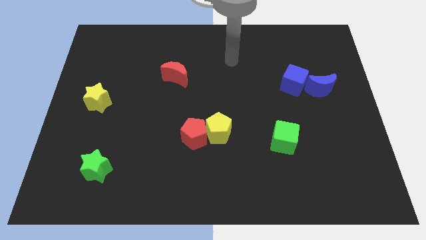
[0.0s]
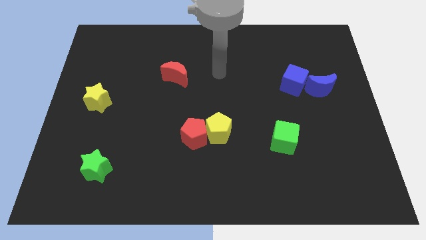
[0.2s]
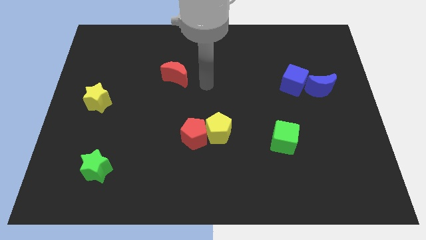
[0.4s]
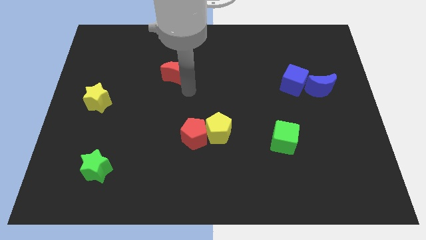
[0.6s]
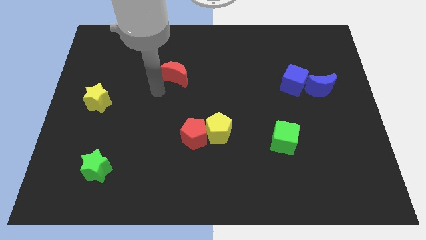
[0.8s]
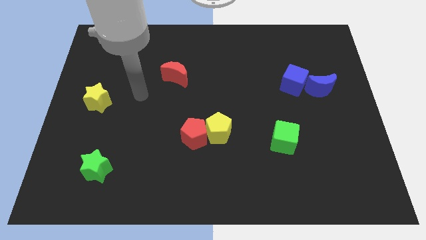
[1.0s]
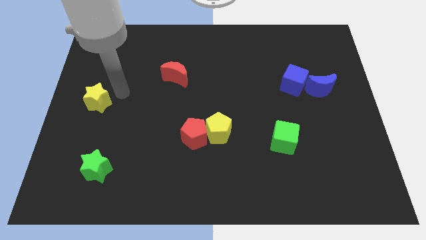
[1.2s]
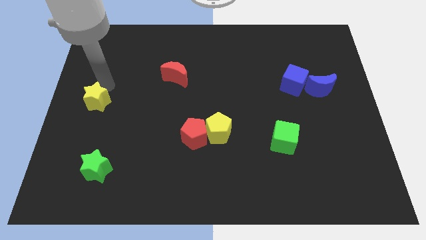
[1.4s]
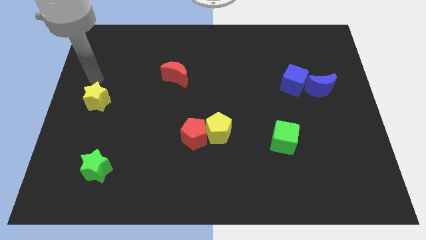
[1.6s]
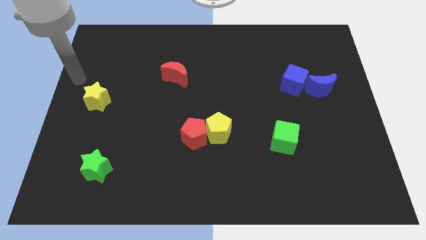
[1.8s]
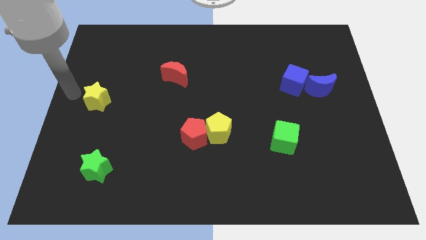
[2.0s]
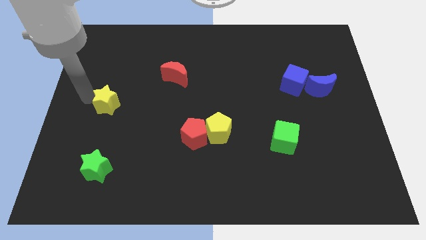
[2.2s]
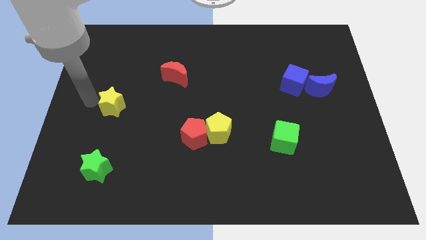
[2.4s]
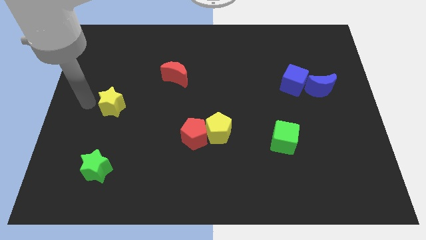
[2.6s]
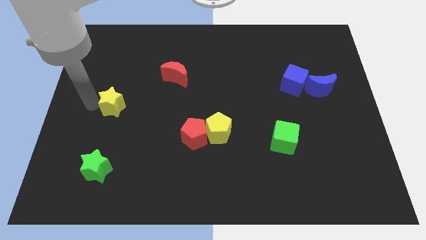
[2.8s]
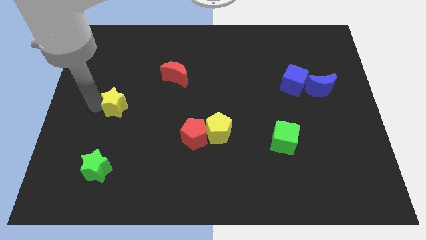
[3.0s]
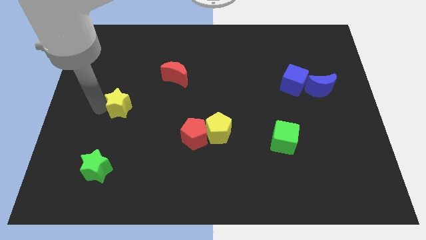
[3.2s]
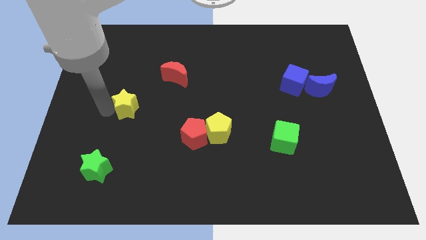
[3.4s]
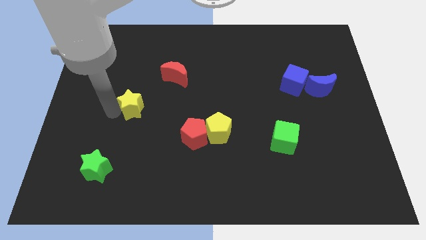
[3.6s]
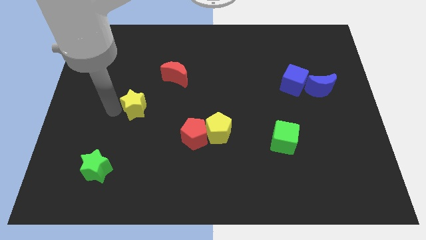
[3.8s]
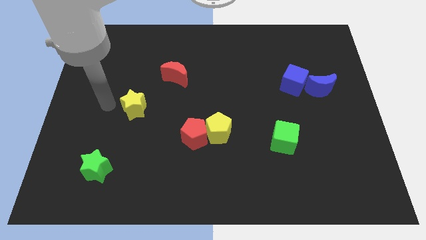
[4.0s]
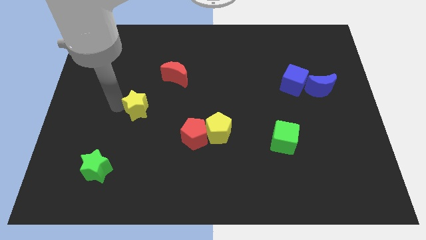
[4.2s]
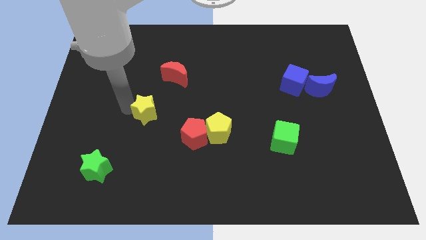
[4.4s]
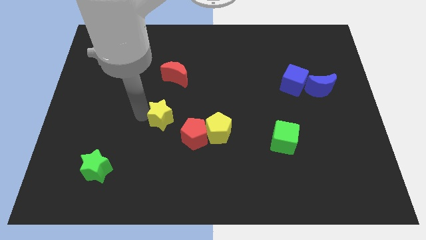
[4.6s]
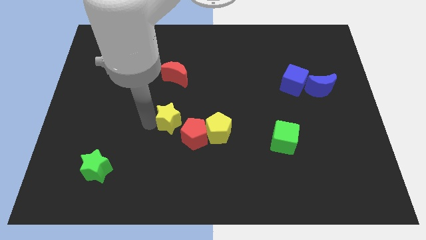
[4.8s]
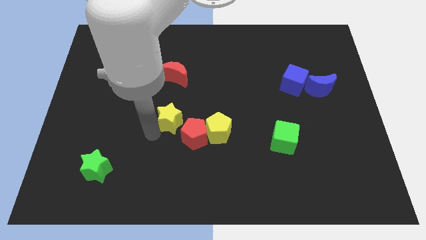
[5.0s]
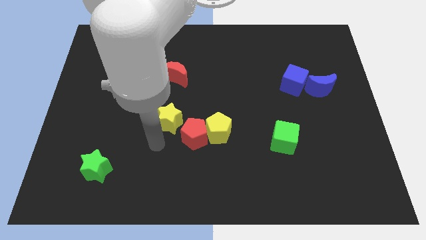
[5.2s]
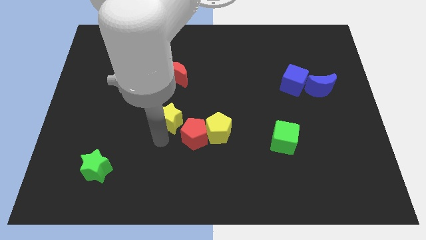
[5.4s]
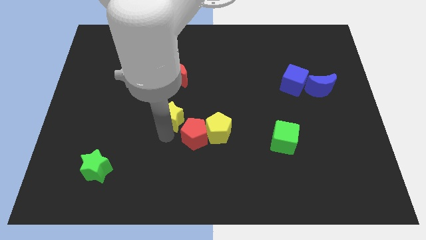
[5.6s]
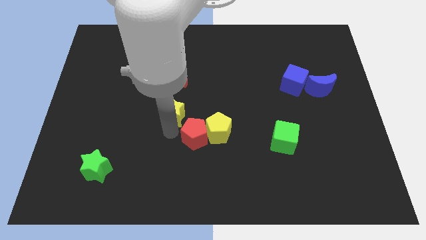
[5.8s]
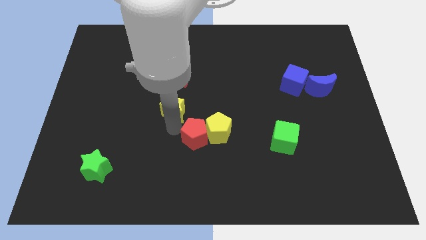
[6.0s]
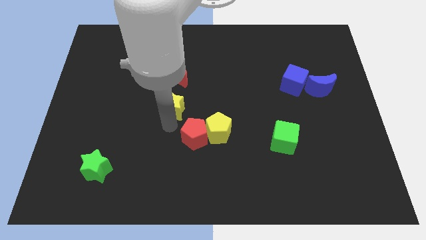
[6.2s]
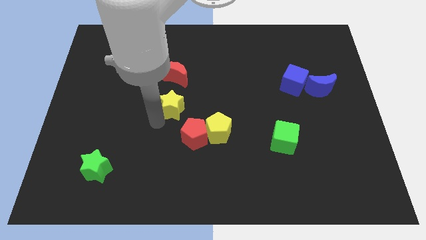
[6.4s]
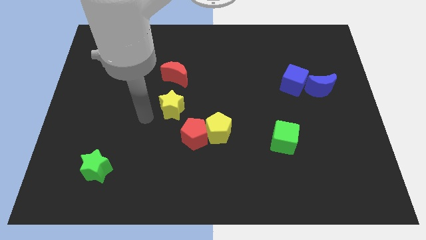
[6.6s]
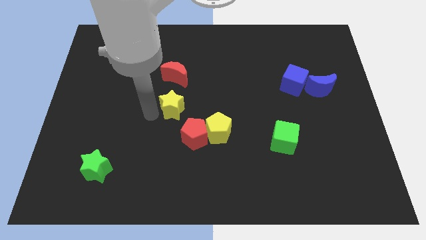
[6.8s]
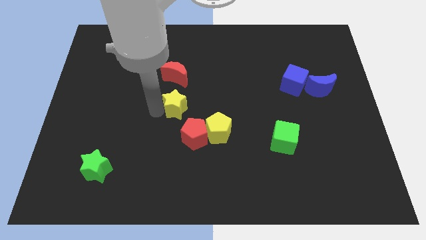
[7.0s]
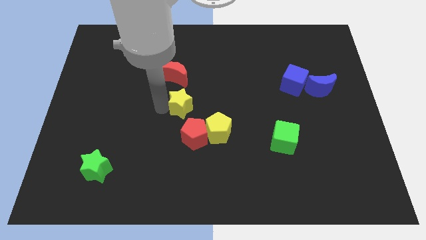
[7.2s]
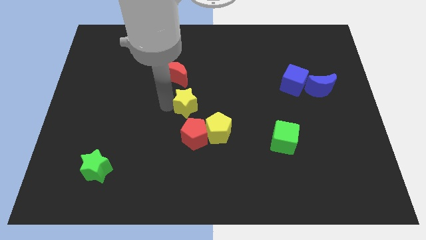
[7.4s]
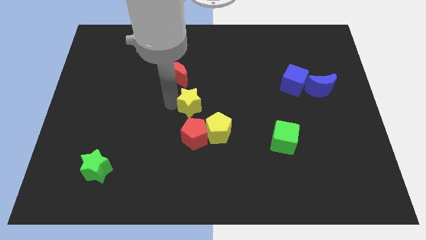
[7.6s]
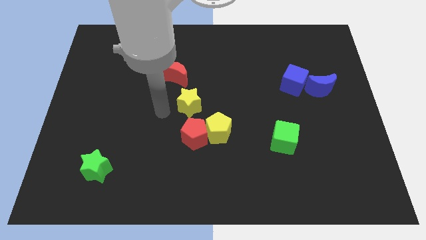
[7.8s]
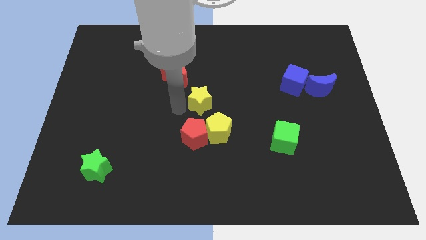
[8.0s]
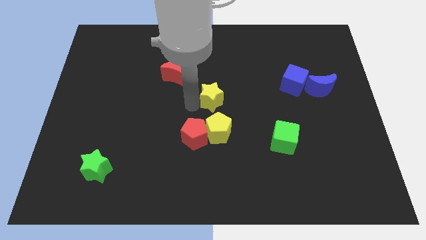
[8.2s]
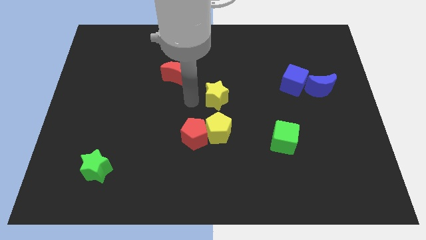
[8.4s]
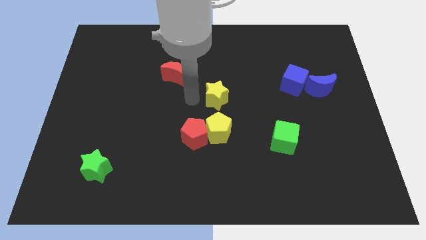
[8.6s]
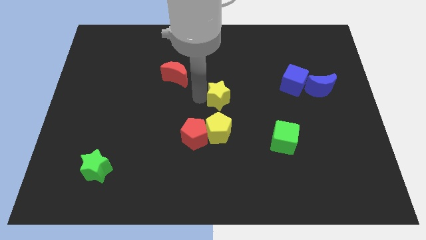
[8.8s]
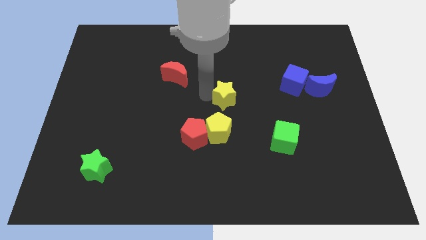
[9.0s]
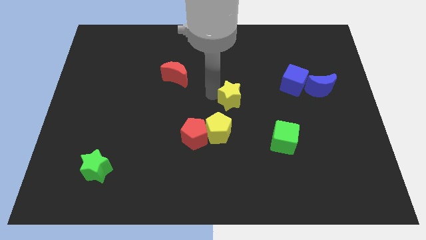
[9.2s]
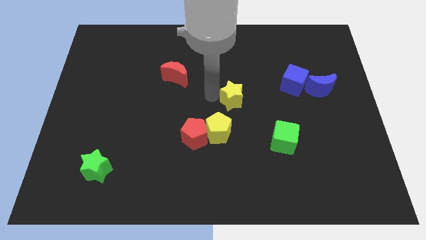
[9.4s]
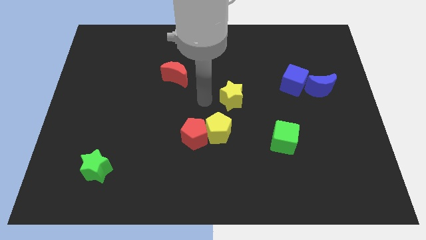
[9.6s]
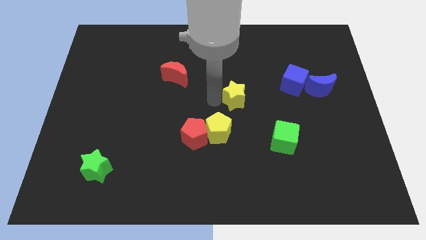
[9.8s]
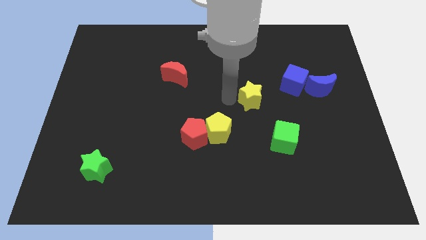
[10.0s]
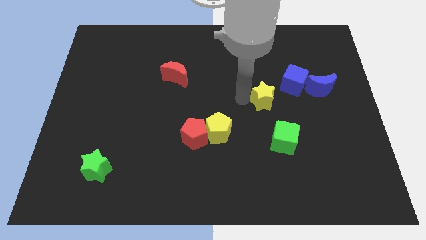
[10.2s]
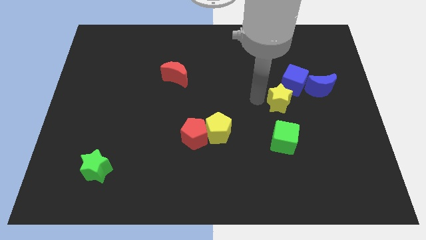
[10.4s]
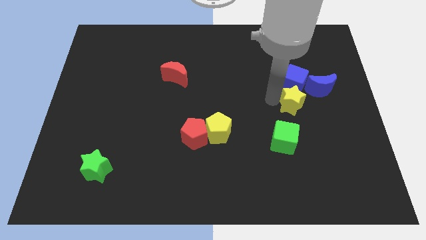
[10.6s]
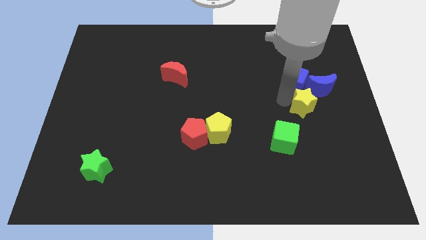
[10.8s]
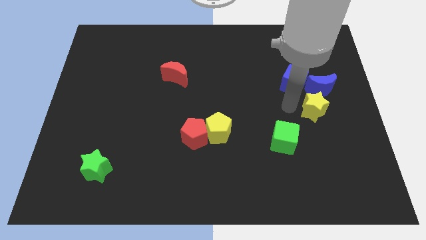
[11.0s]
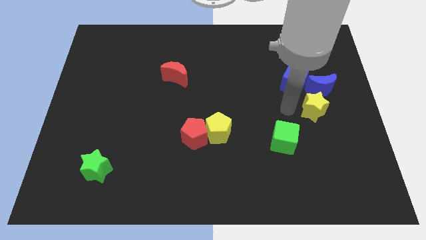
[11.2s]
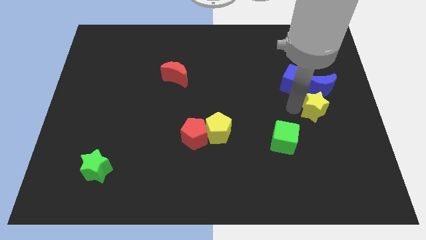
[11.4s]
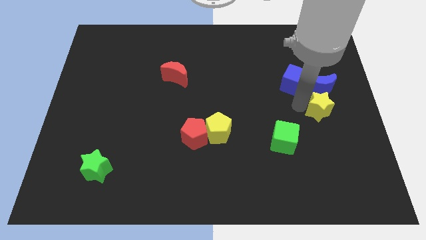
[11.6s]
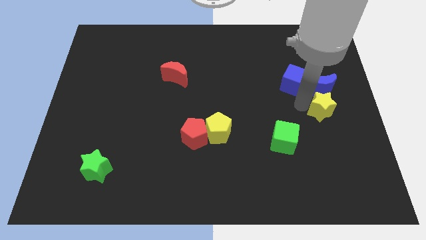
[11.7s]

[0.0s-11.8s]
push the yellow star to the right side
